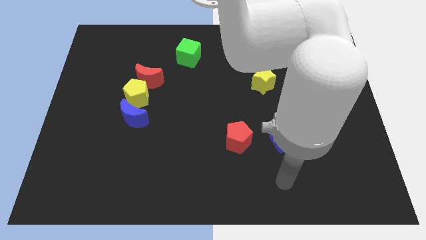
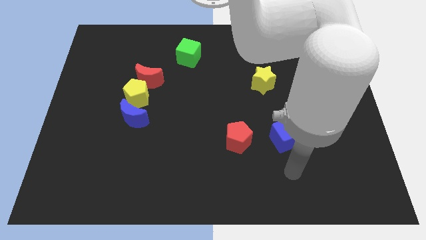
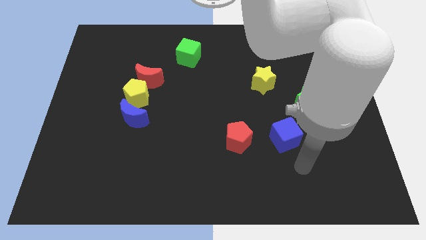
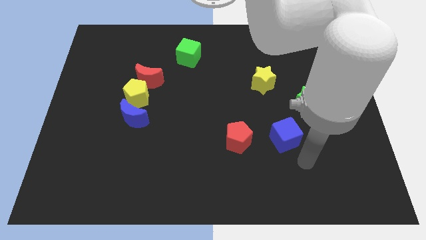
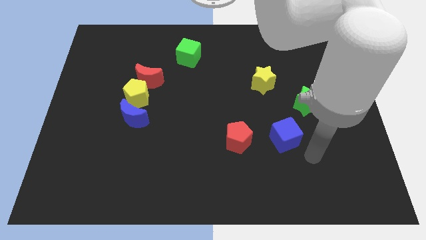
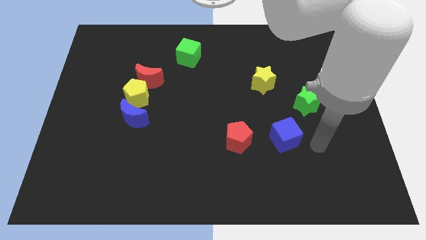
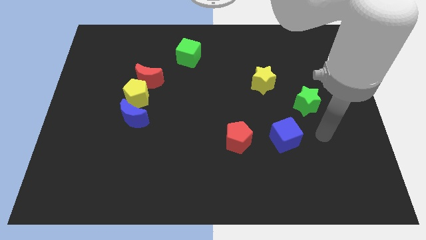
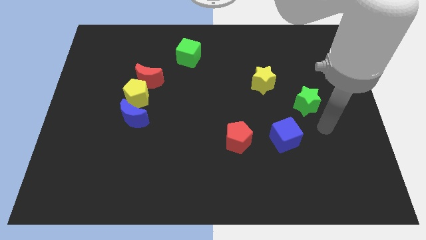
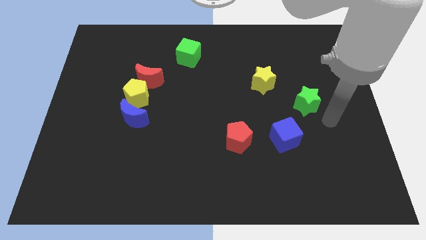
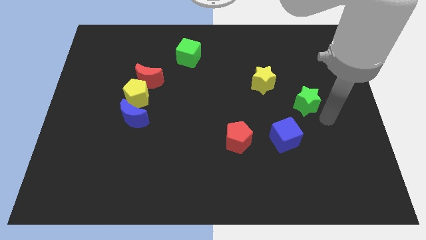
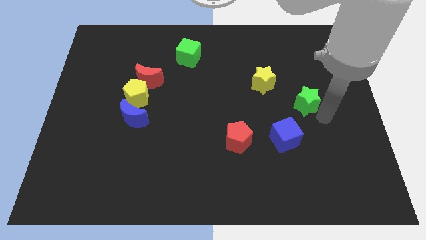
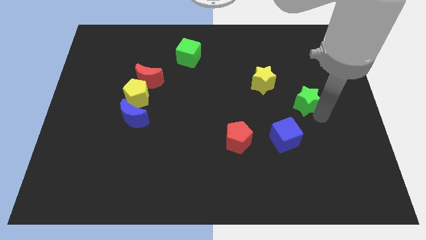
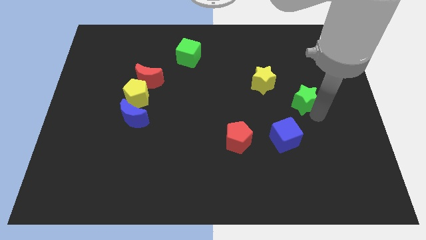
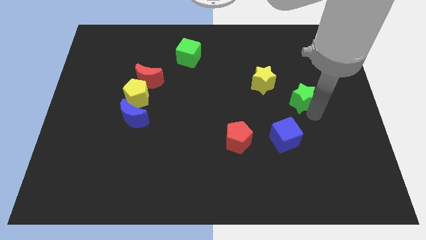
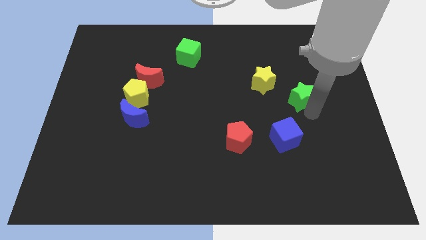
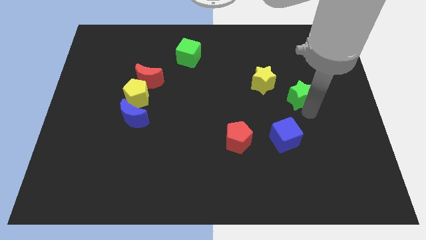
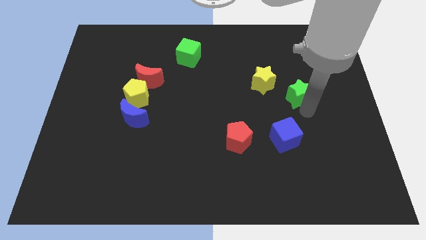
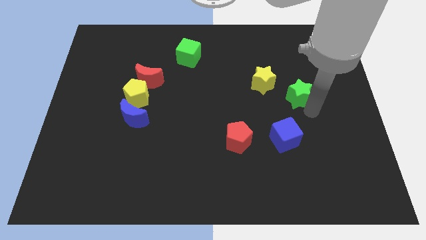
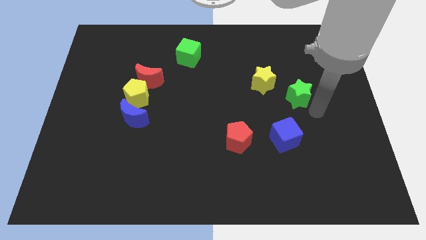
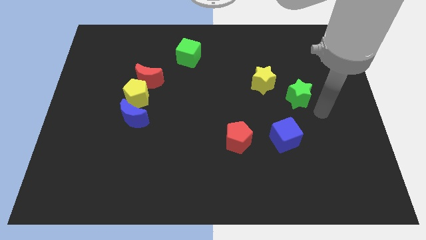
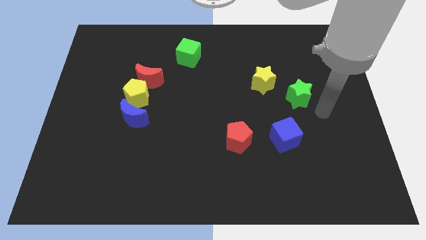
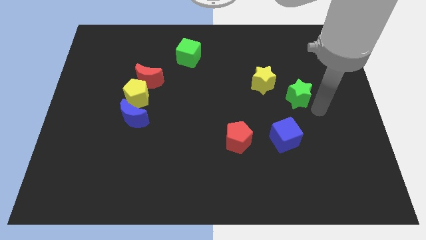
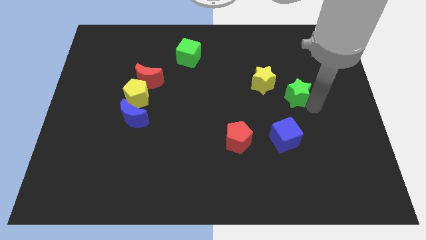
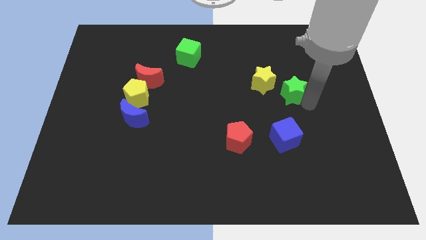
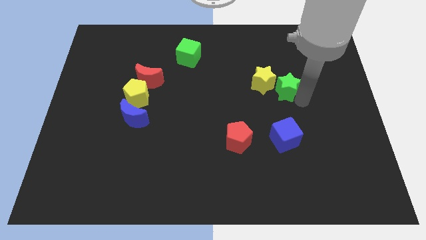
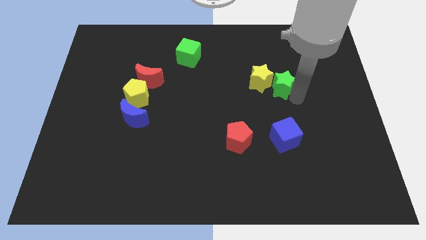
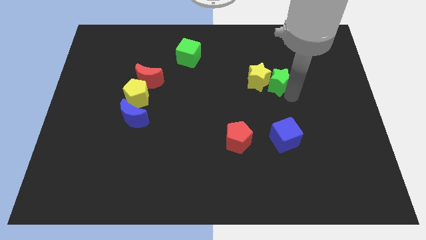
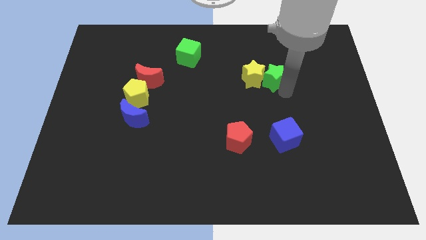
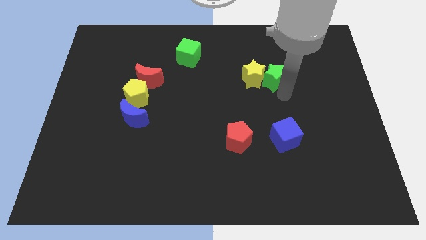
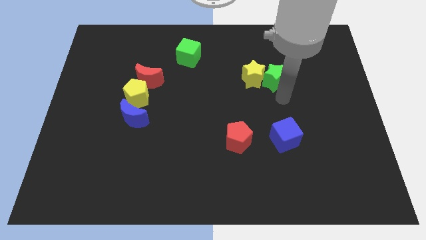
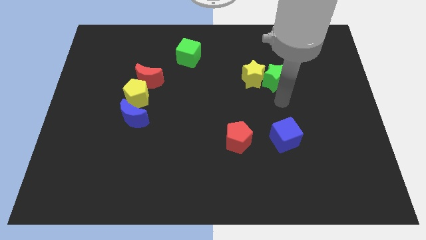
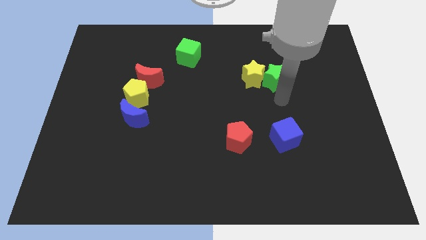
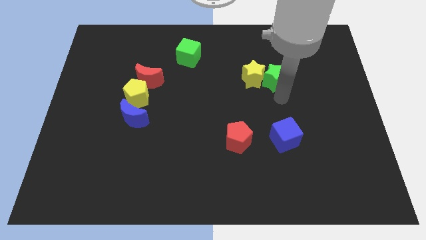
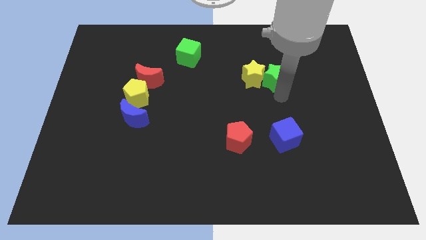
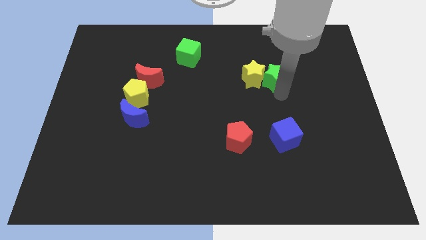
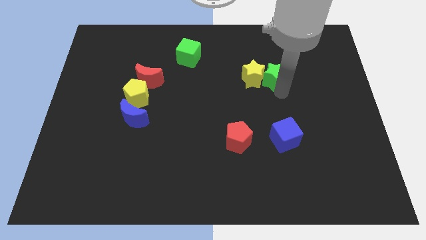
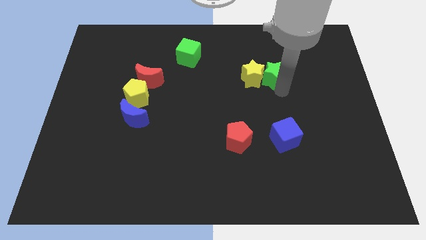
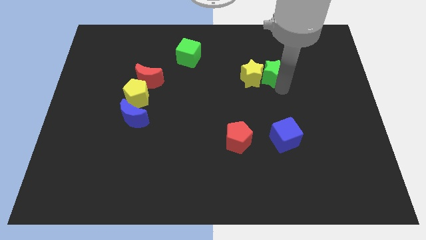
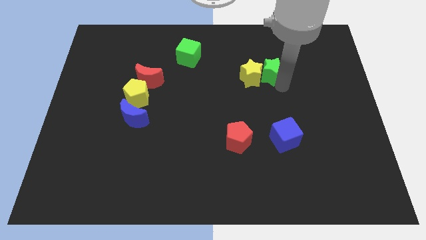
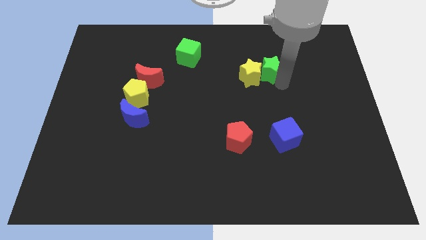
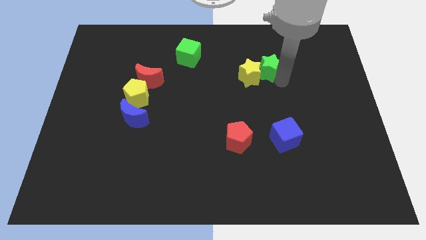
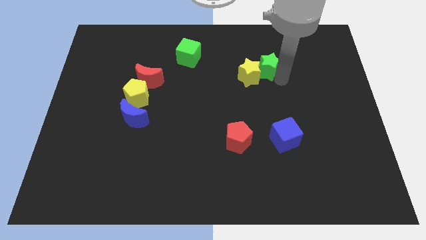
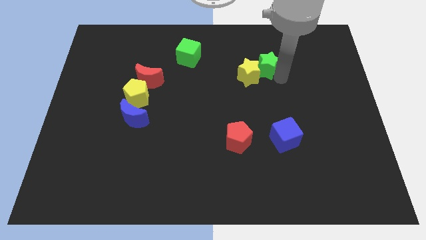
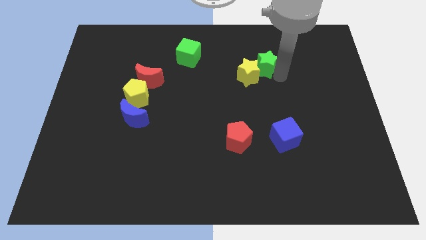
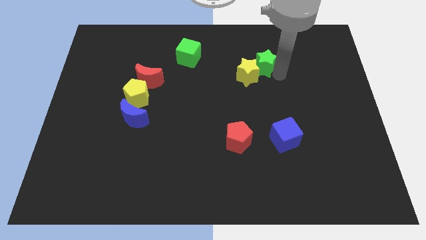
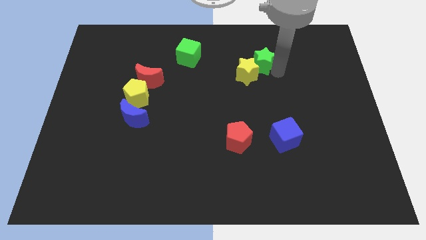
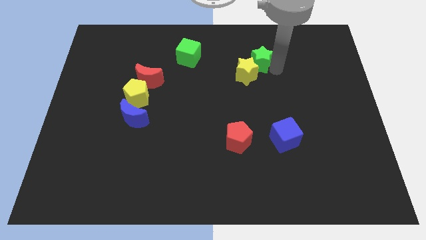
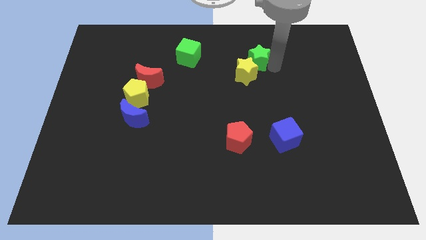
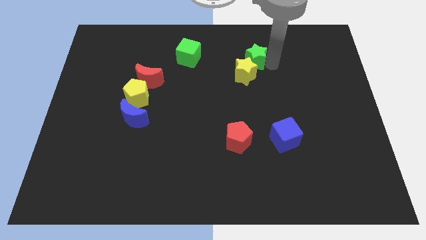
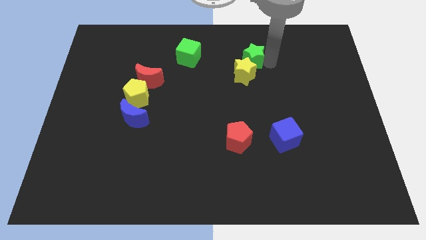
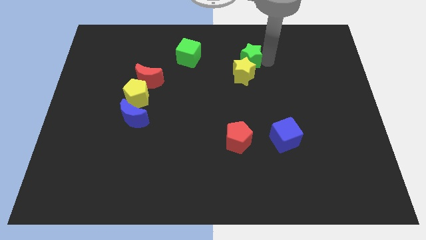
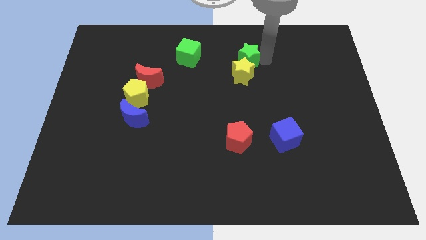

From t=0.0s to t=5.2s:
move the green star just right of the green cube

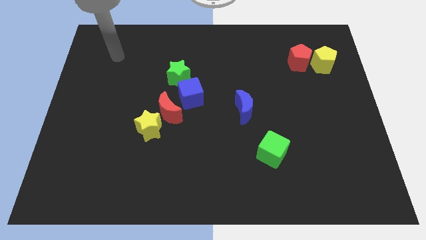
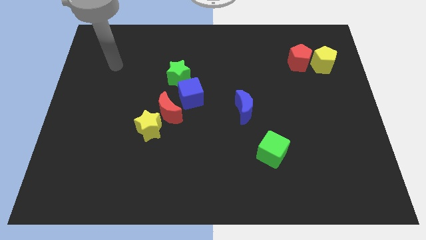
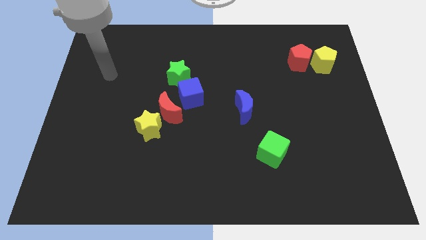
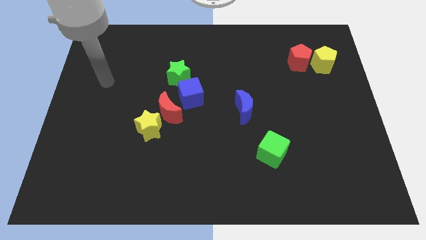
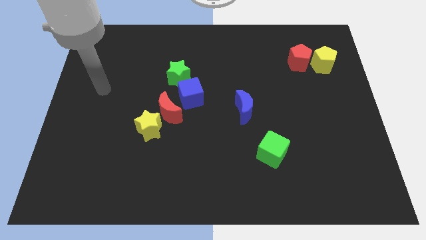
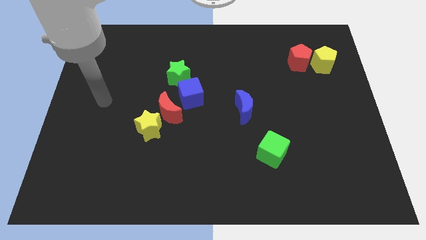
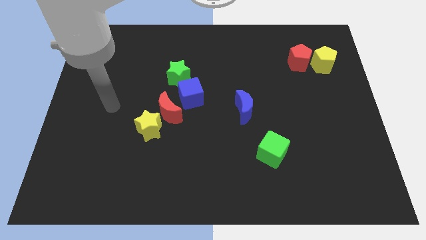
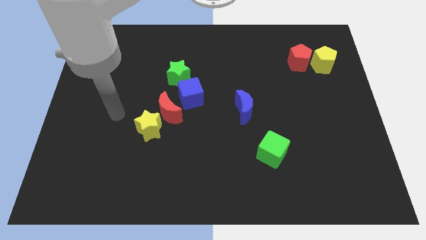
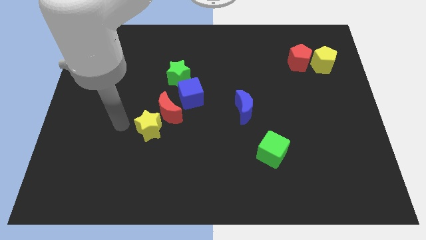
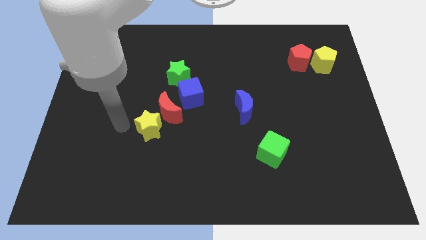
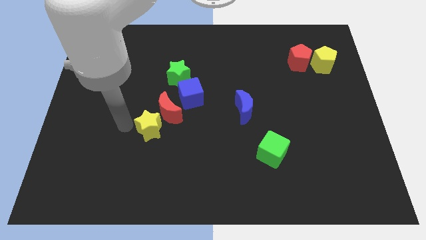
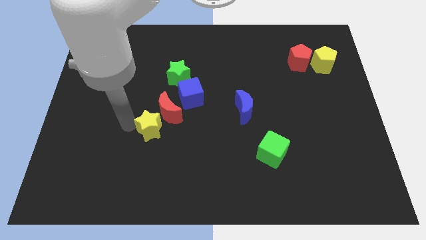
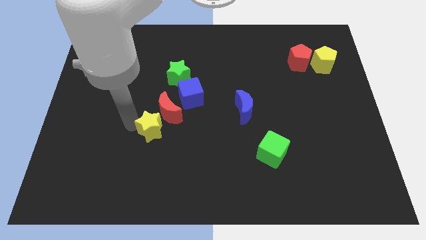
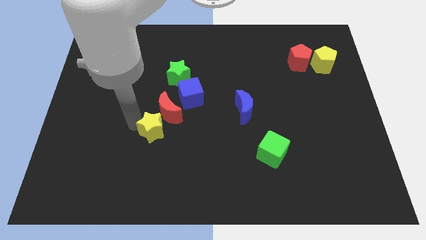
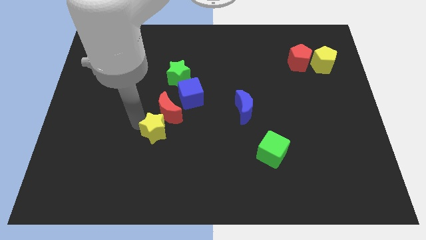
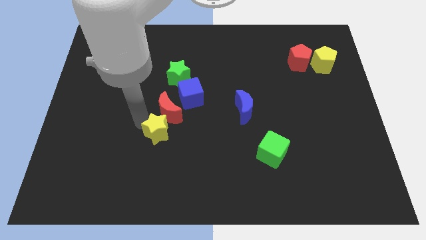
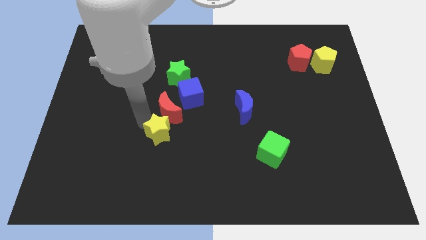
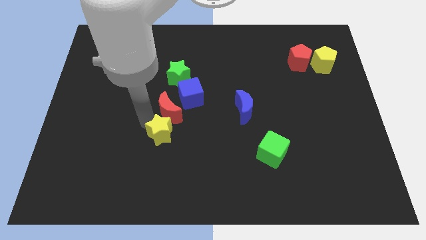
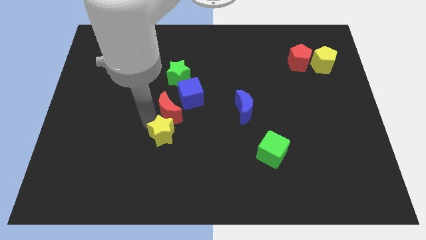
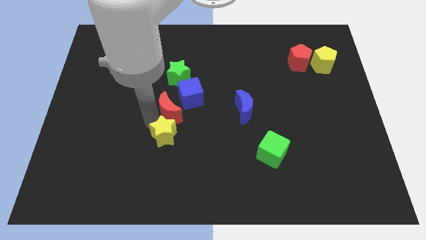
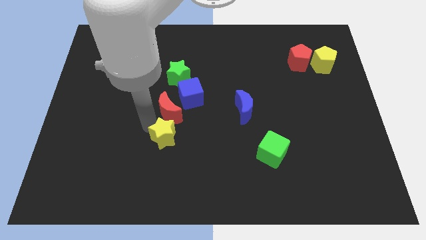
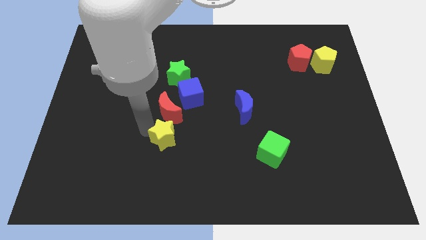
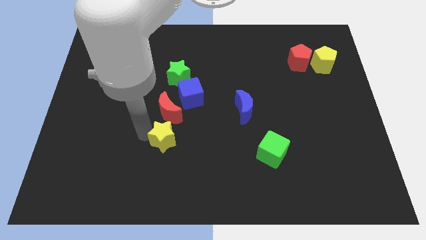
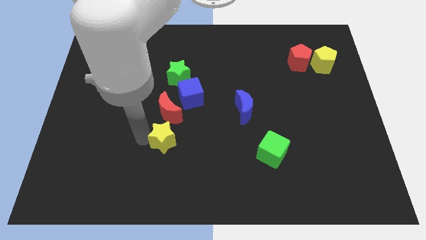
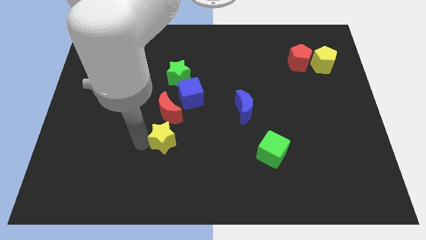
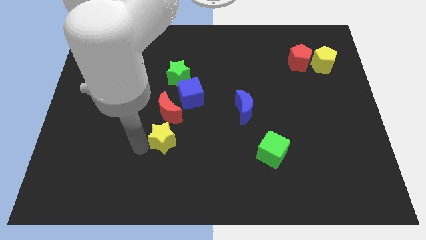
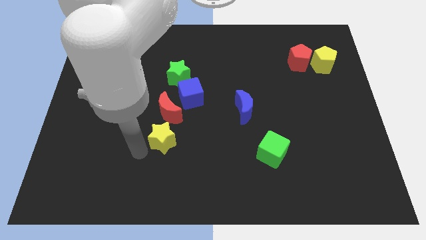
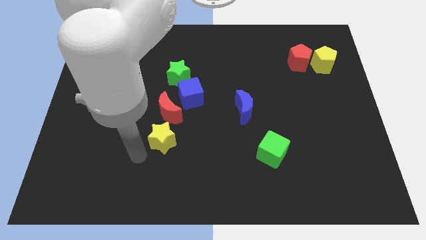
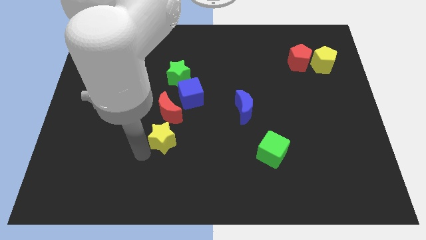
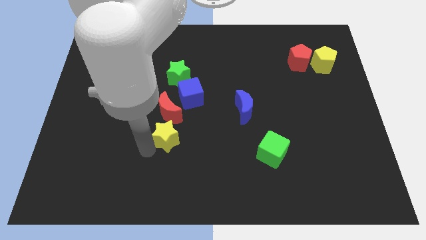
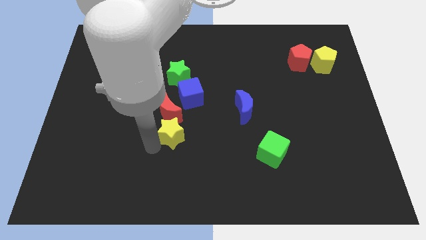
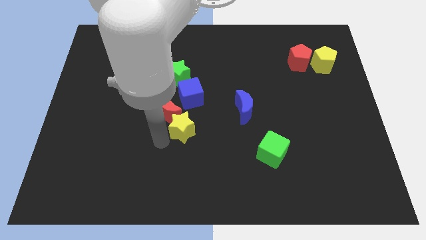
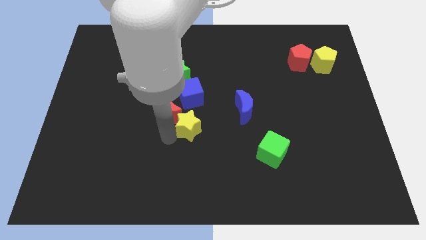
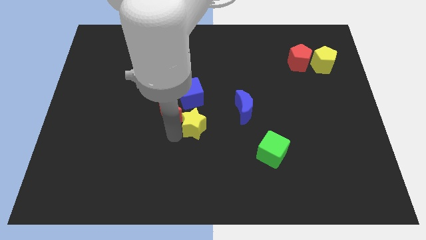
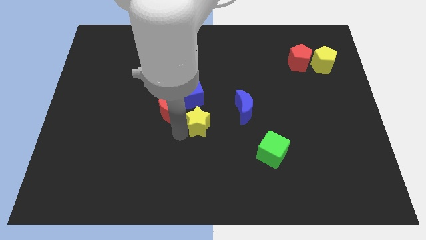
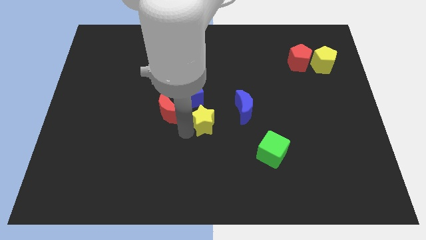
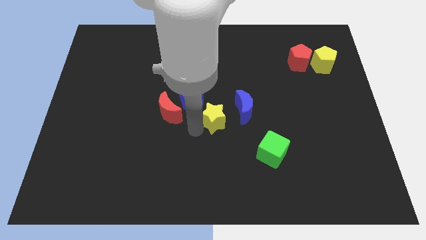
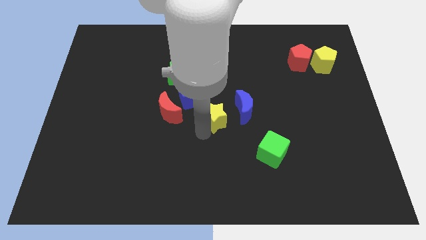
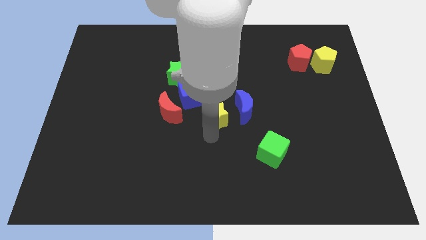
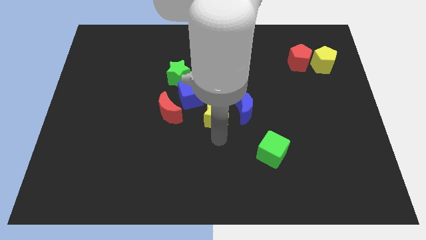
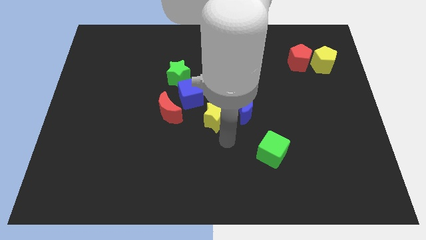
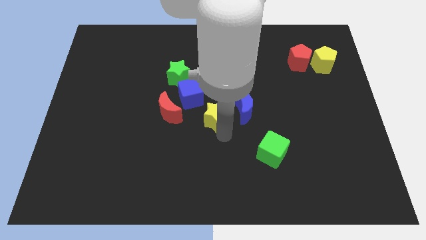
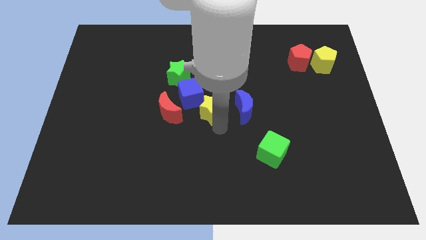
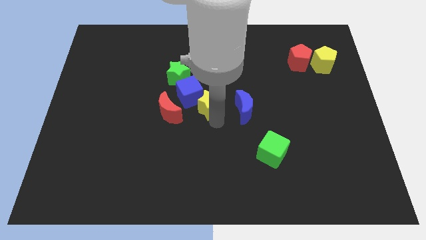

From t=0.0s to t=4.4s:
push the yellow star diagonally down and to the right of the green star
